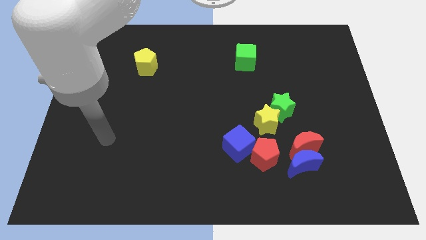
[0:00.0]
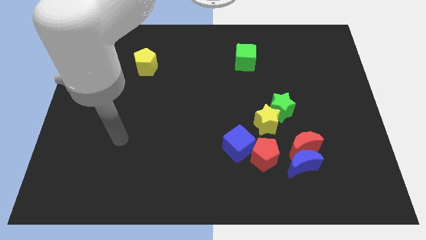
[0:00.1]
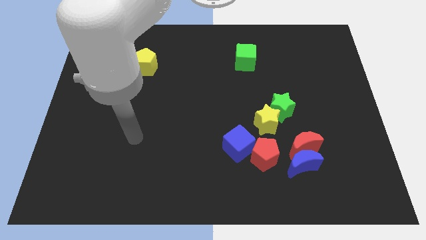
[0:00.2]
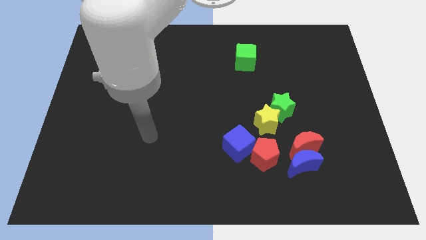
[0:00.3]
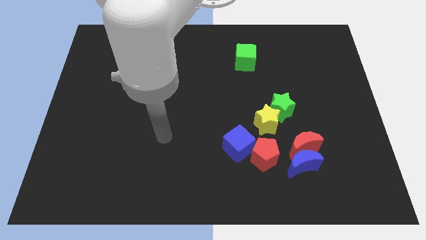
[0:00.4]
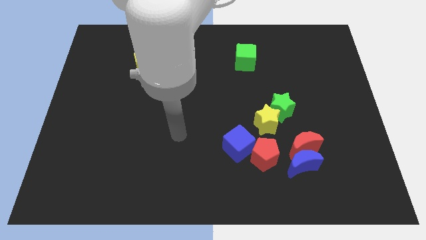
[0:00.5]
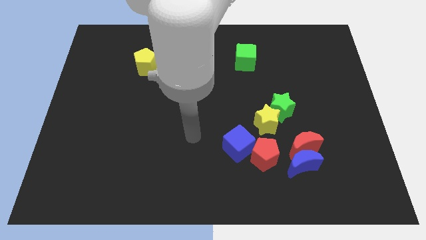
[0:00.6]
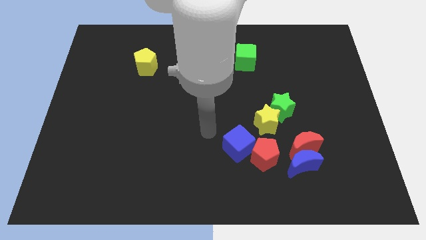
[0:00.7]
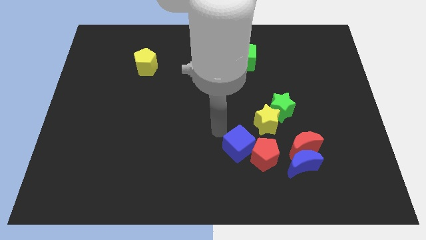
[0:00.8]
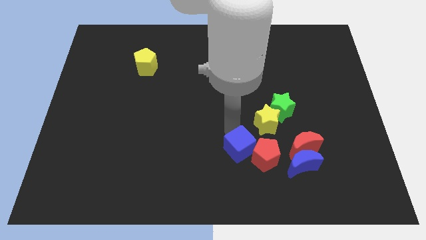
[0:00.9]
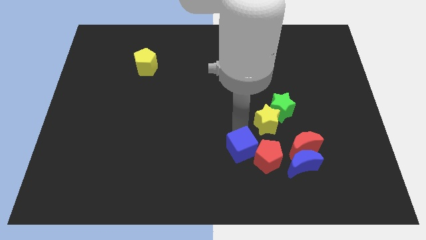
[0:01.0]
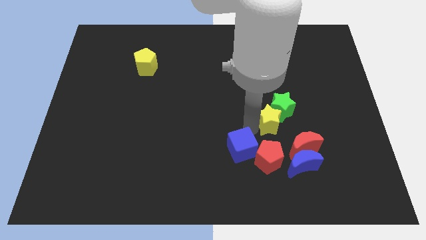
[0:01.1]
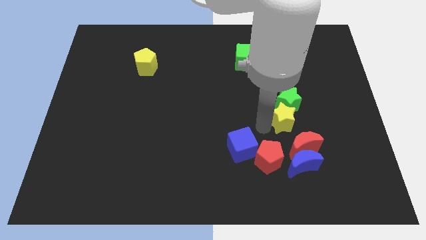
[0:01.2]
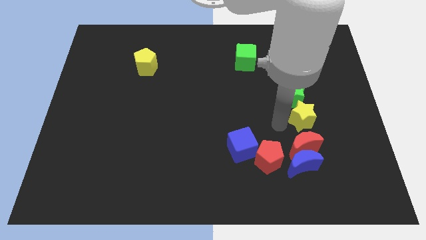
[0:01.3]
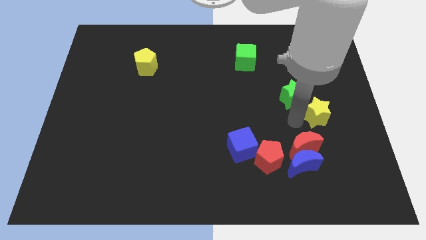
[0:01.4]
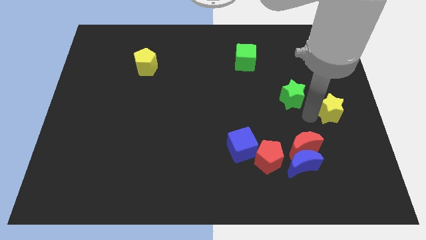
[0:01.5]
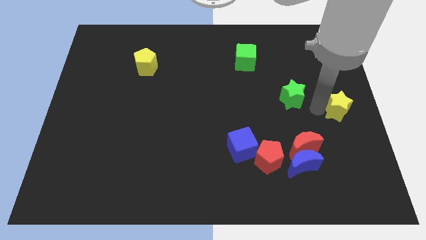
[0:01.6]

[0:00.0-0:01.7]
move the green star away from the yellow star

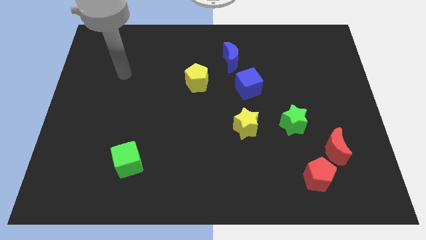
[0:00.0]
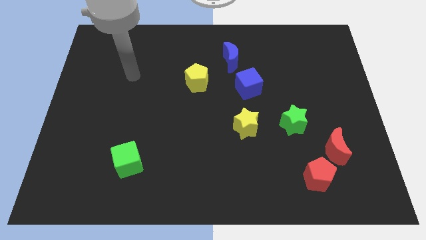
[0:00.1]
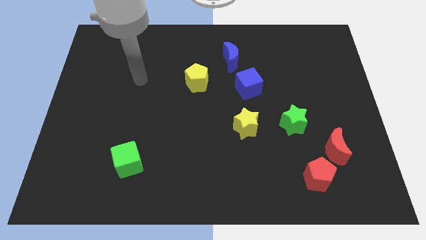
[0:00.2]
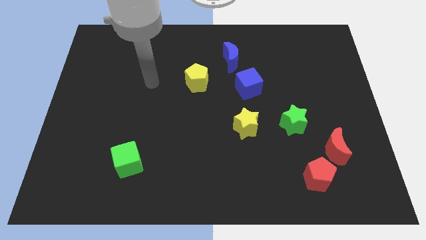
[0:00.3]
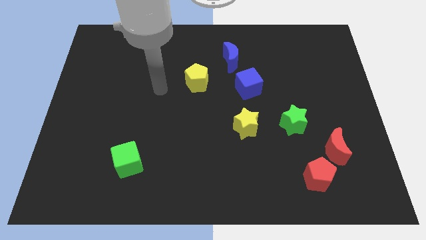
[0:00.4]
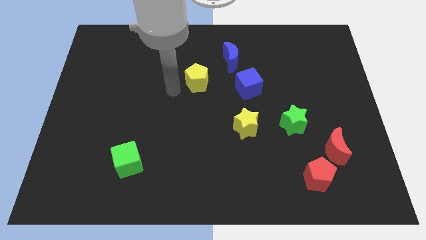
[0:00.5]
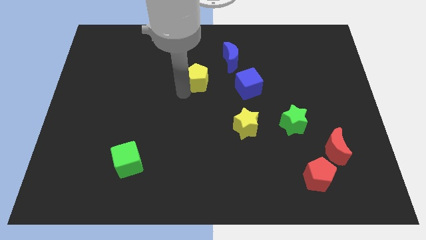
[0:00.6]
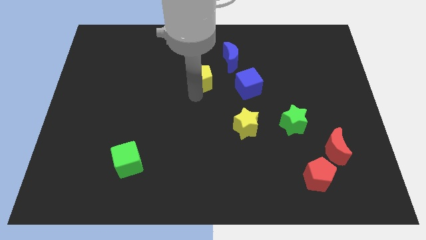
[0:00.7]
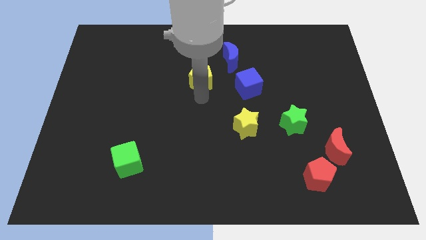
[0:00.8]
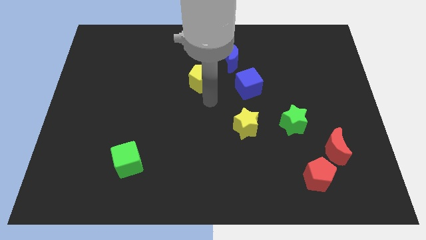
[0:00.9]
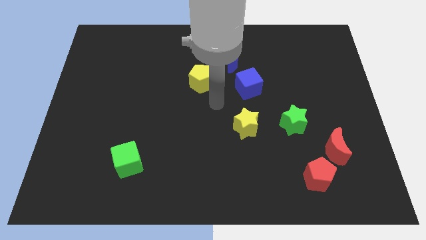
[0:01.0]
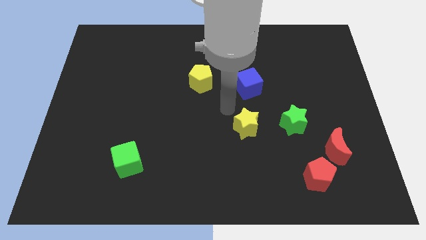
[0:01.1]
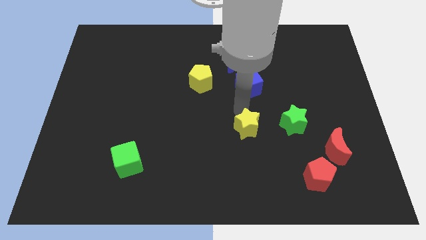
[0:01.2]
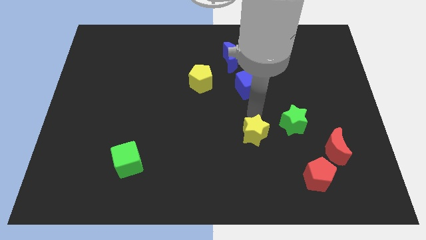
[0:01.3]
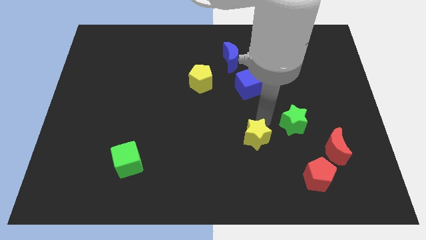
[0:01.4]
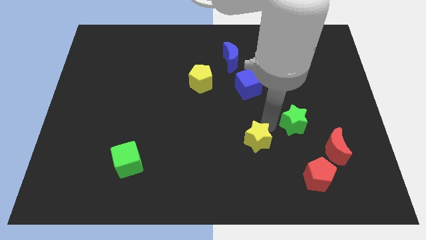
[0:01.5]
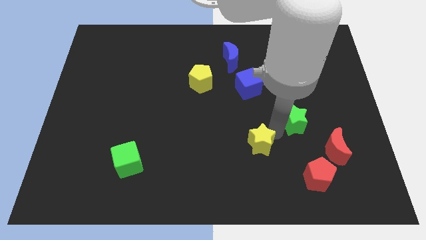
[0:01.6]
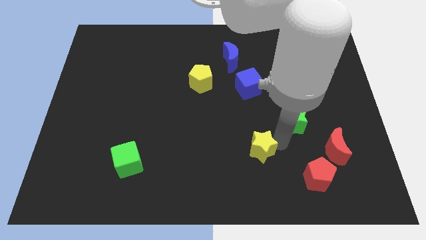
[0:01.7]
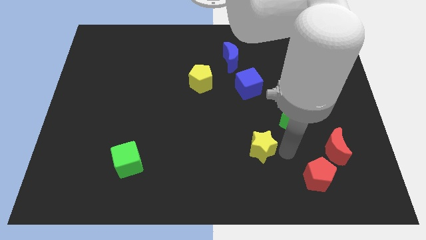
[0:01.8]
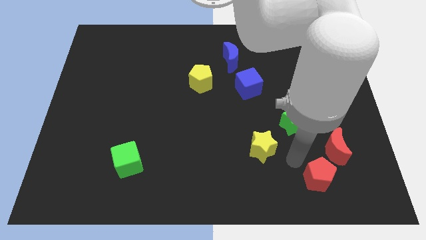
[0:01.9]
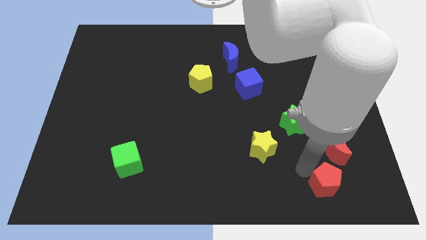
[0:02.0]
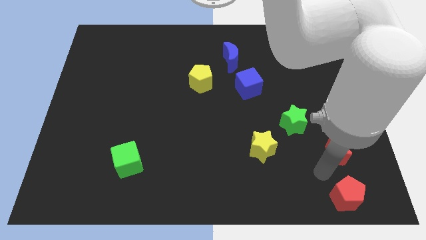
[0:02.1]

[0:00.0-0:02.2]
separate the red moon from the red pentagon

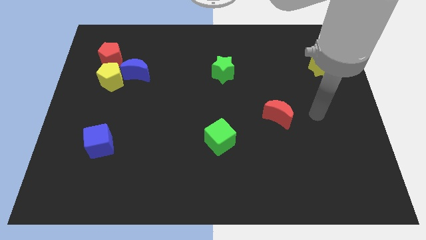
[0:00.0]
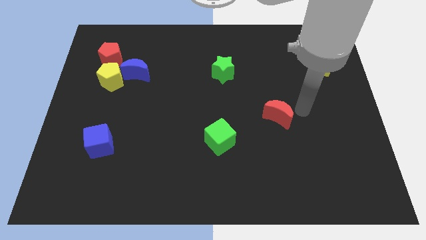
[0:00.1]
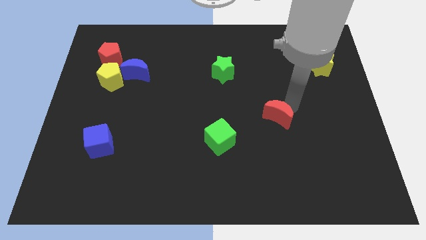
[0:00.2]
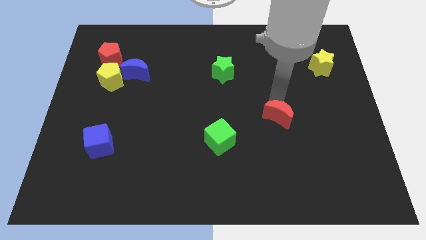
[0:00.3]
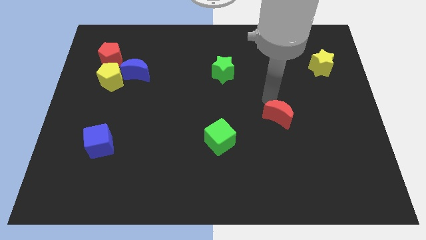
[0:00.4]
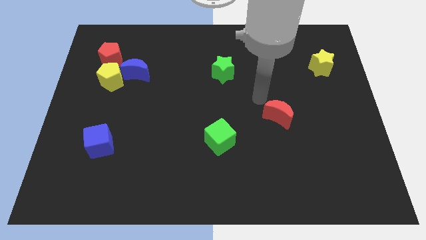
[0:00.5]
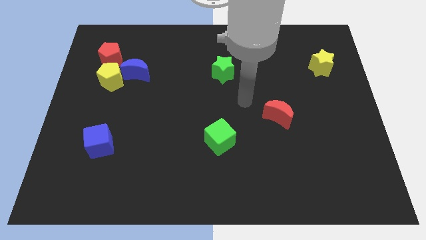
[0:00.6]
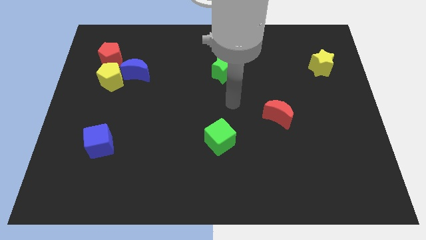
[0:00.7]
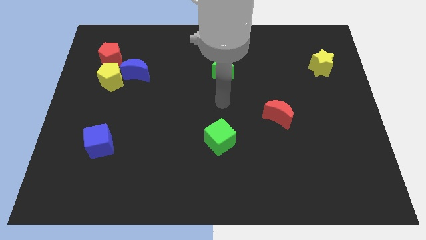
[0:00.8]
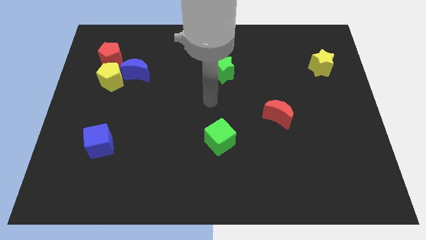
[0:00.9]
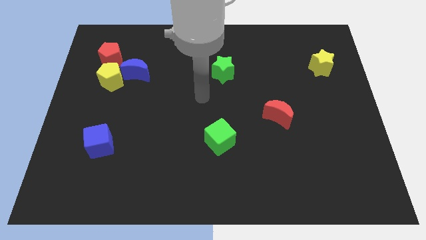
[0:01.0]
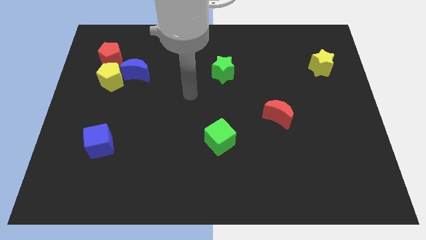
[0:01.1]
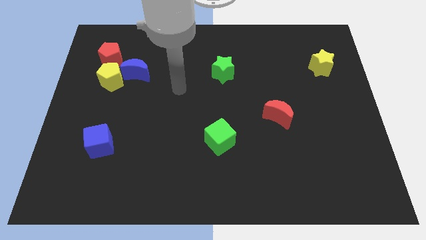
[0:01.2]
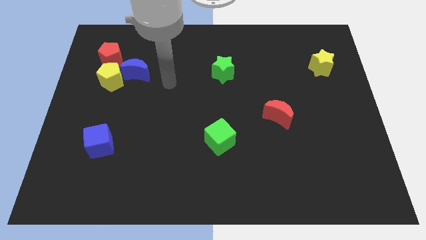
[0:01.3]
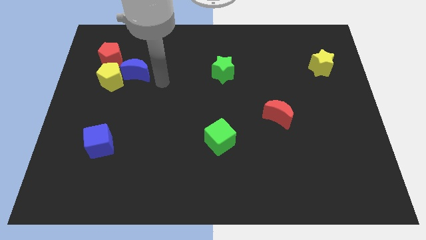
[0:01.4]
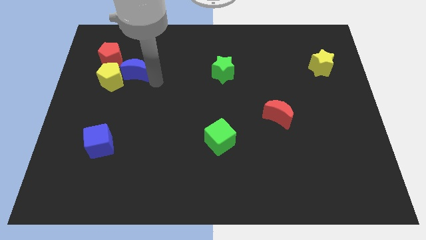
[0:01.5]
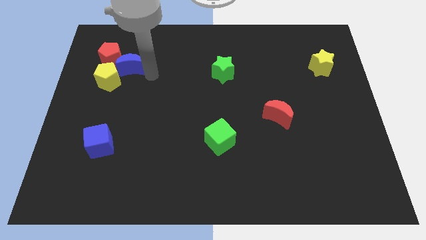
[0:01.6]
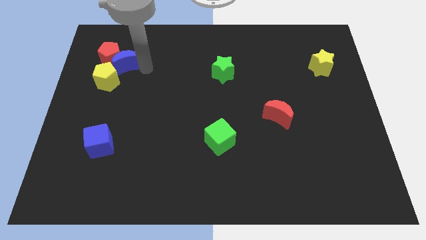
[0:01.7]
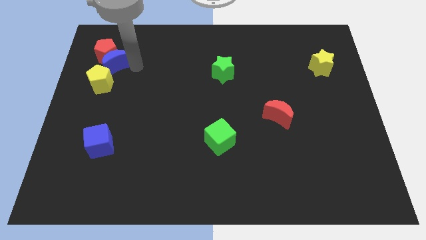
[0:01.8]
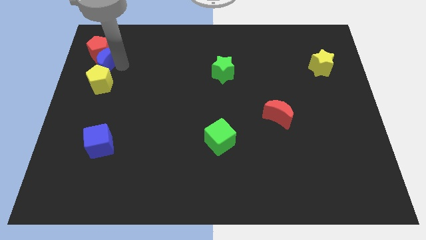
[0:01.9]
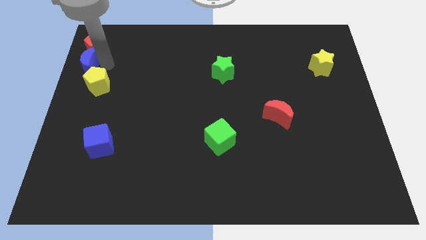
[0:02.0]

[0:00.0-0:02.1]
pull the yellow pentagon apart from the blue moon and red pentagon

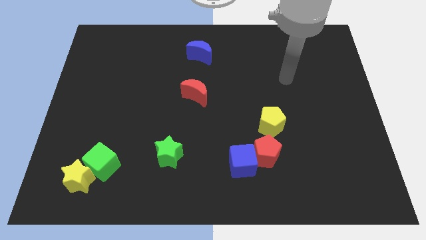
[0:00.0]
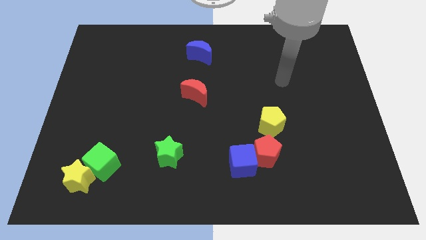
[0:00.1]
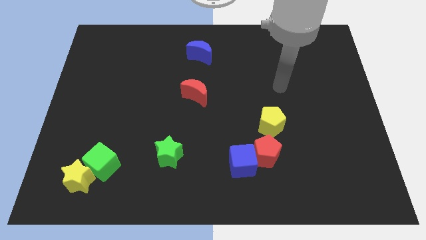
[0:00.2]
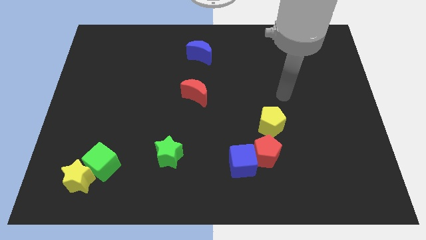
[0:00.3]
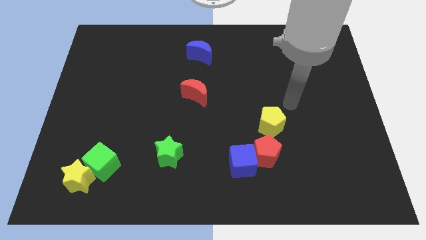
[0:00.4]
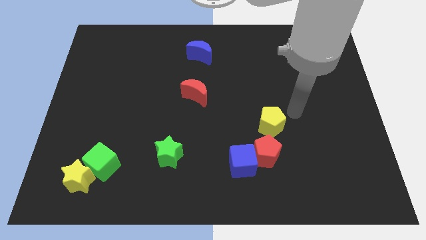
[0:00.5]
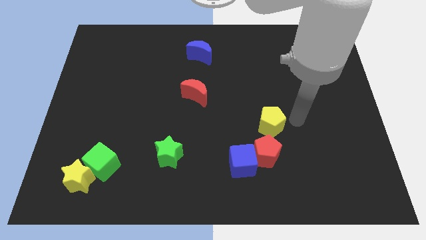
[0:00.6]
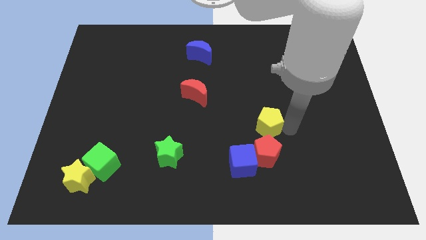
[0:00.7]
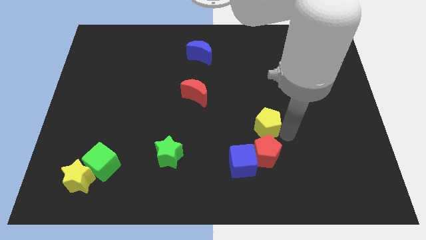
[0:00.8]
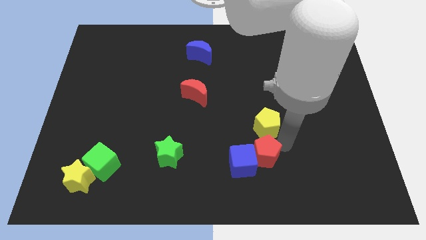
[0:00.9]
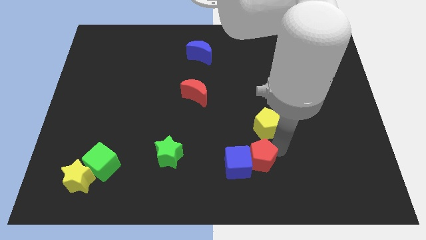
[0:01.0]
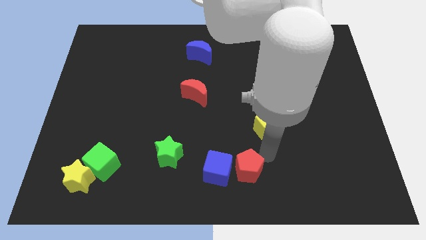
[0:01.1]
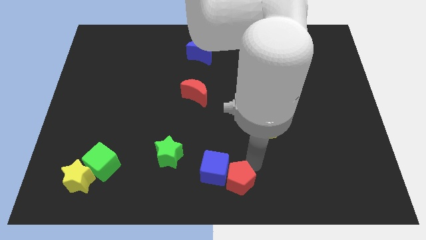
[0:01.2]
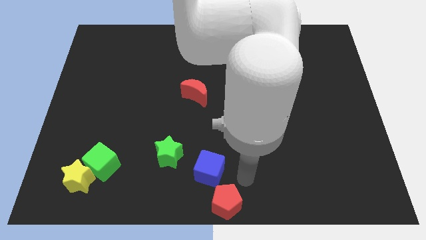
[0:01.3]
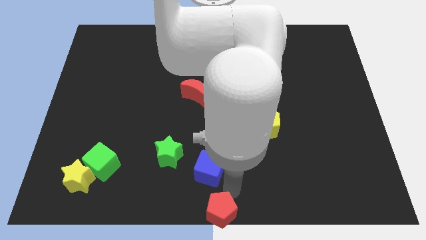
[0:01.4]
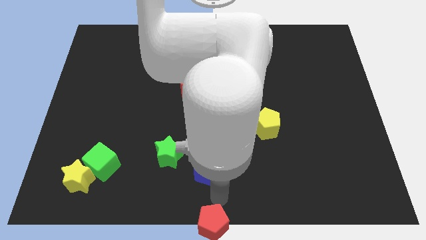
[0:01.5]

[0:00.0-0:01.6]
separate the blue cube from the red pentagon

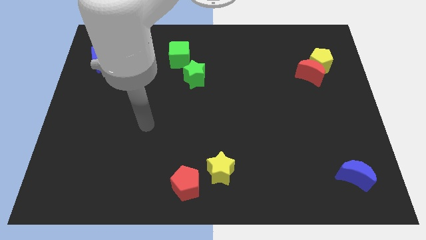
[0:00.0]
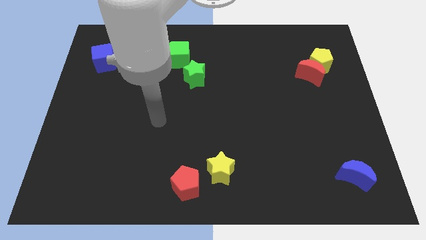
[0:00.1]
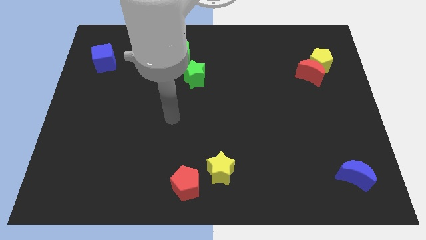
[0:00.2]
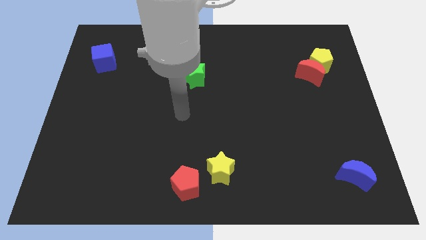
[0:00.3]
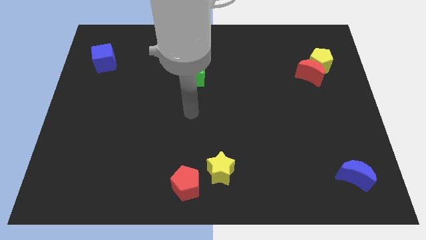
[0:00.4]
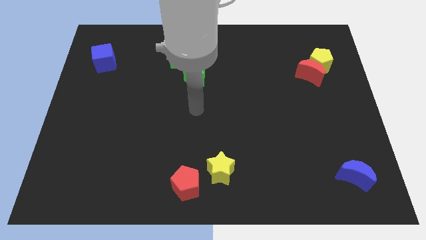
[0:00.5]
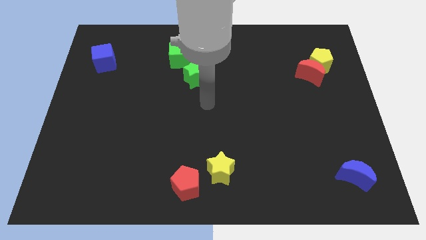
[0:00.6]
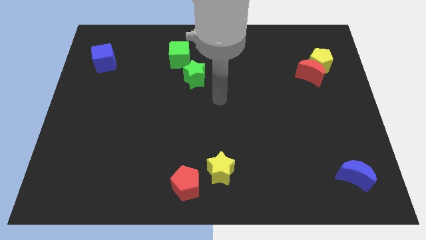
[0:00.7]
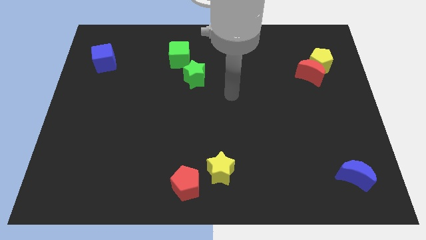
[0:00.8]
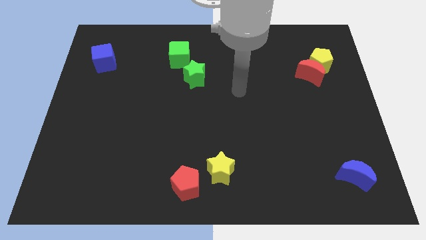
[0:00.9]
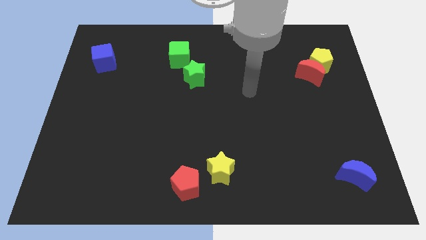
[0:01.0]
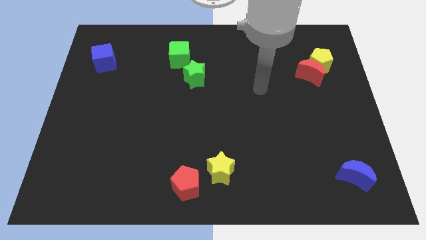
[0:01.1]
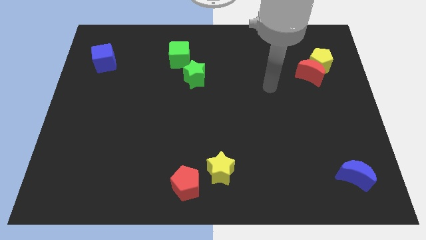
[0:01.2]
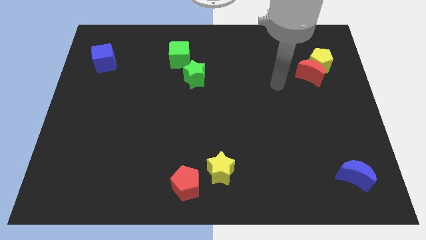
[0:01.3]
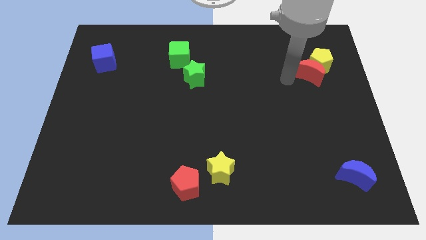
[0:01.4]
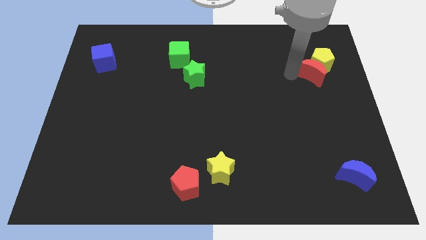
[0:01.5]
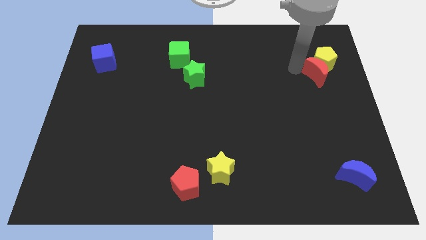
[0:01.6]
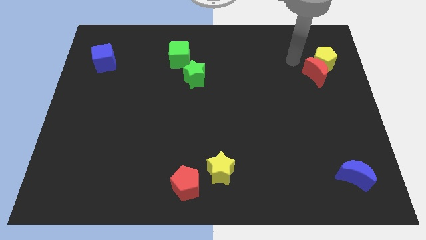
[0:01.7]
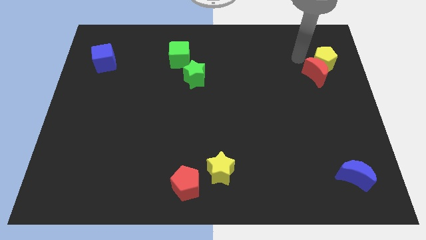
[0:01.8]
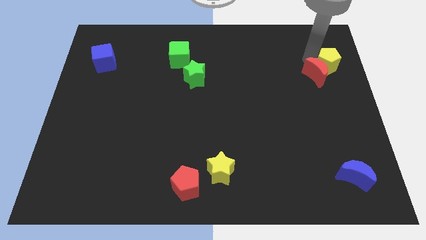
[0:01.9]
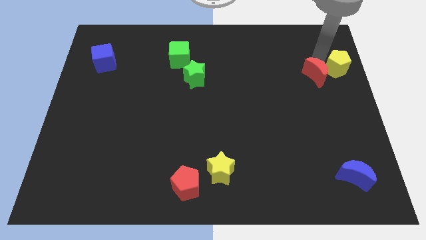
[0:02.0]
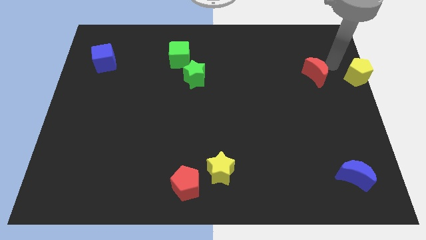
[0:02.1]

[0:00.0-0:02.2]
pull the red moon apart from the yellow pentagon
